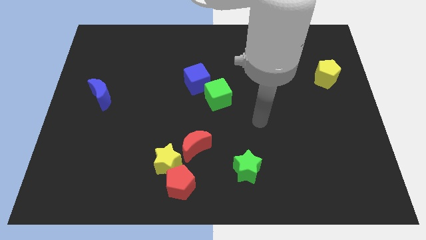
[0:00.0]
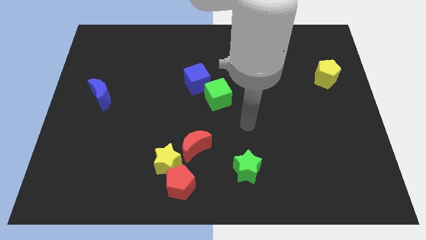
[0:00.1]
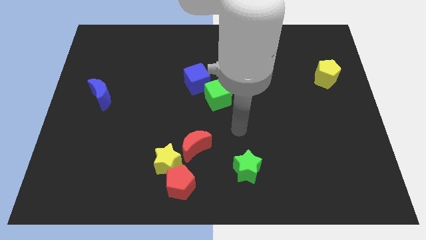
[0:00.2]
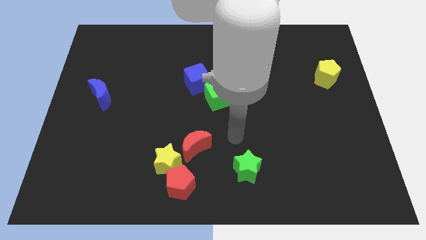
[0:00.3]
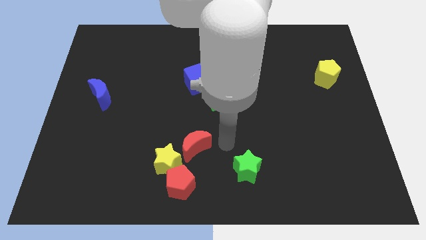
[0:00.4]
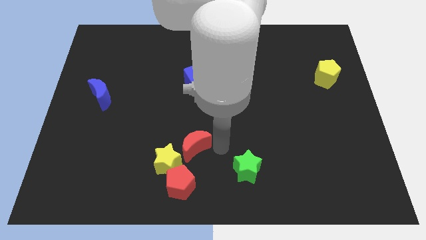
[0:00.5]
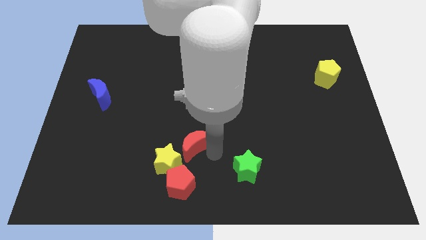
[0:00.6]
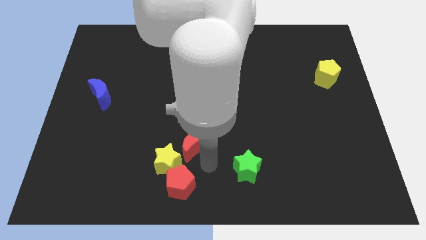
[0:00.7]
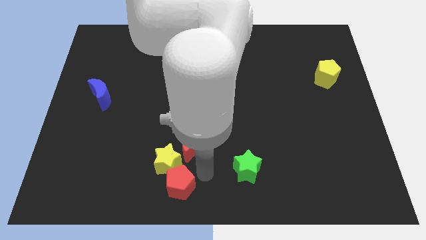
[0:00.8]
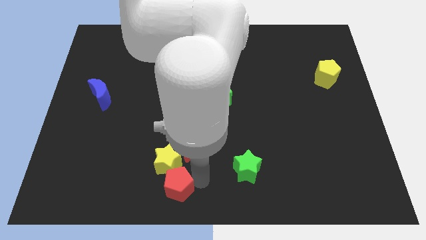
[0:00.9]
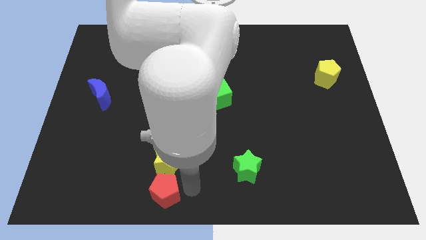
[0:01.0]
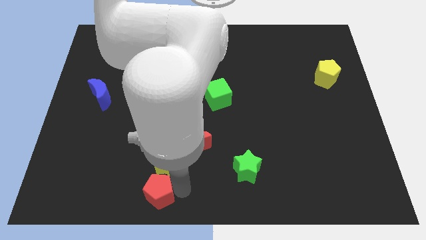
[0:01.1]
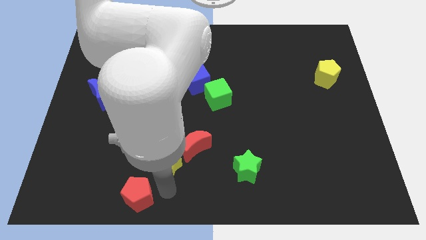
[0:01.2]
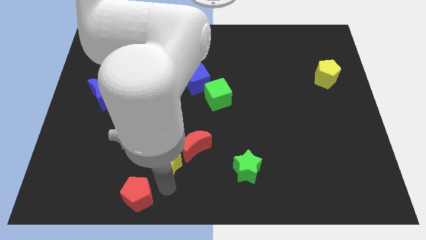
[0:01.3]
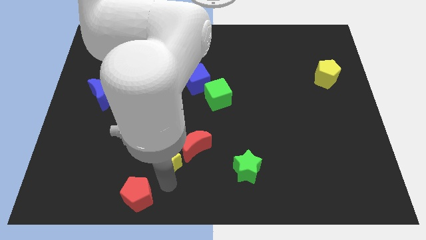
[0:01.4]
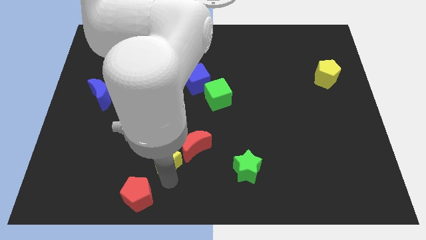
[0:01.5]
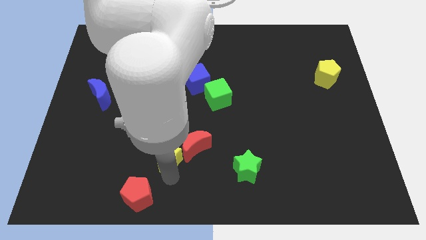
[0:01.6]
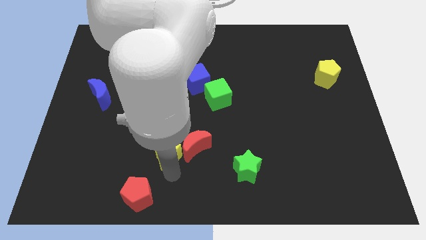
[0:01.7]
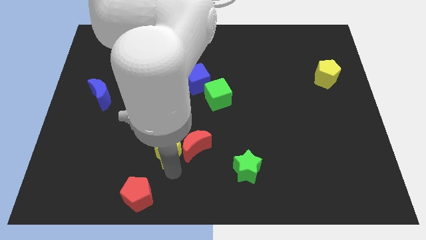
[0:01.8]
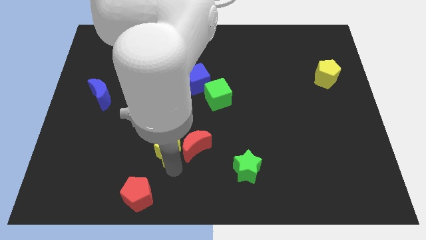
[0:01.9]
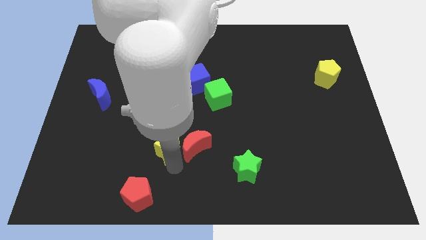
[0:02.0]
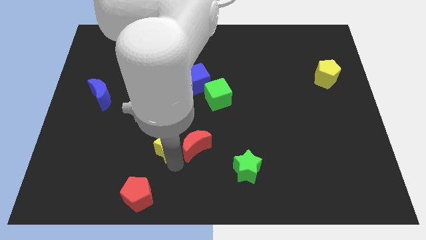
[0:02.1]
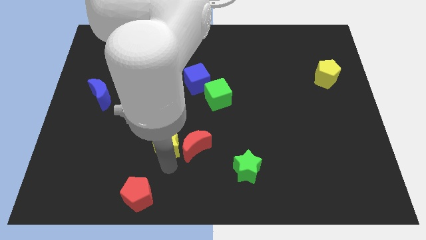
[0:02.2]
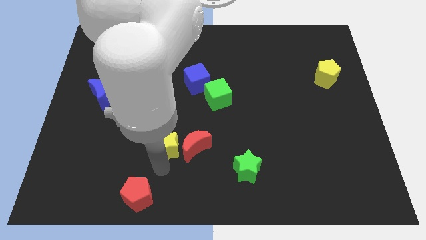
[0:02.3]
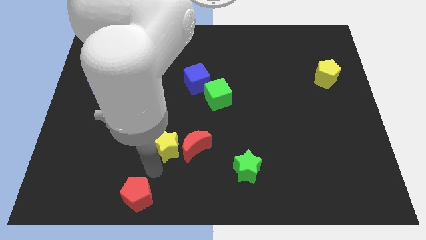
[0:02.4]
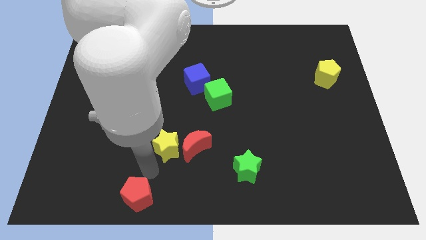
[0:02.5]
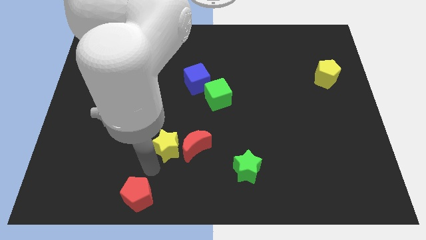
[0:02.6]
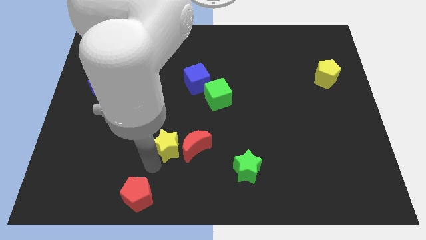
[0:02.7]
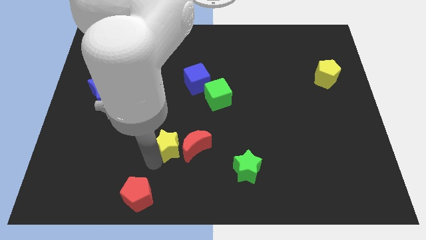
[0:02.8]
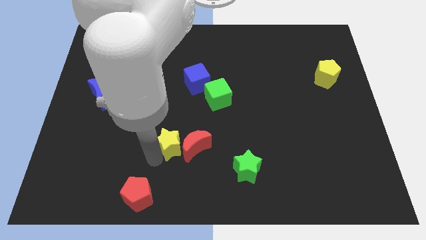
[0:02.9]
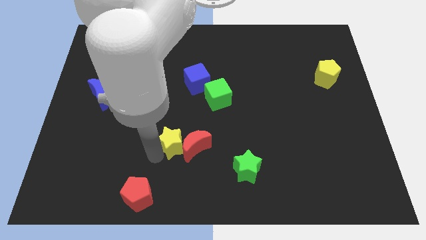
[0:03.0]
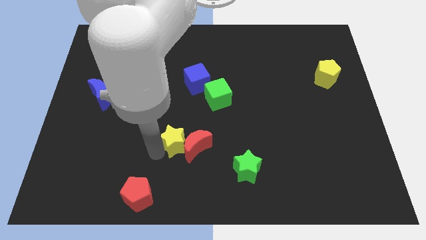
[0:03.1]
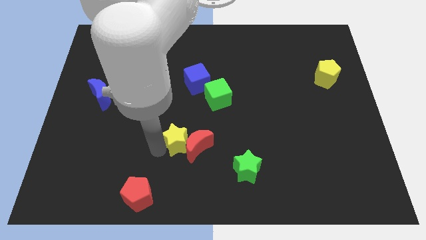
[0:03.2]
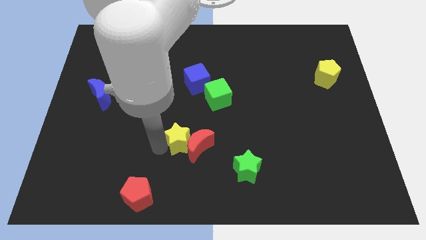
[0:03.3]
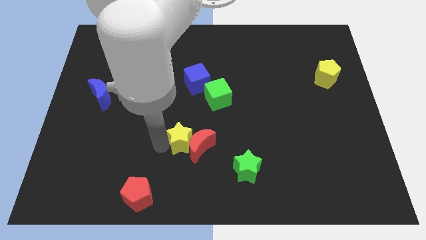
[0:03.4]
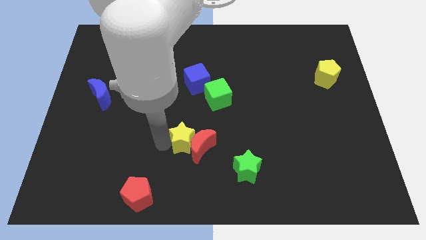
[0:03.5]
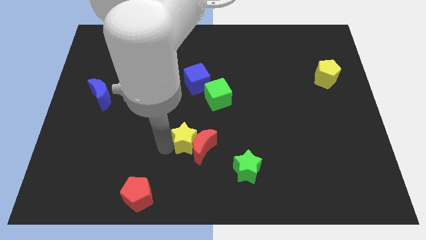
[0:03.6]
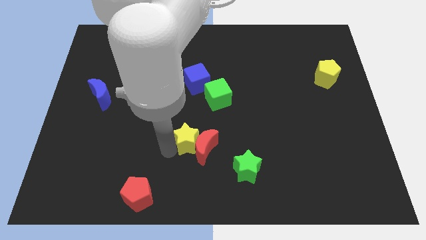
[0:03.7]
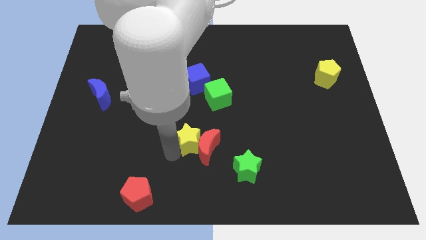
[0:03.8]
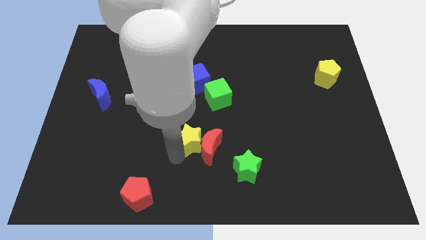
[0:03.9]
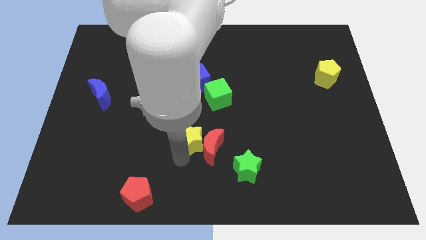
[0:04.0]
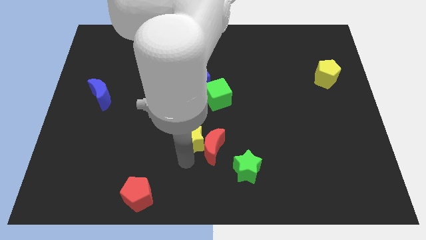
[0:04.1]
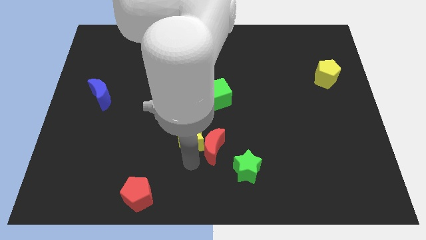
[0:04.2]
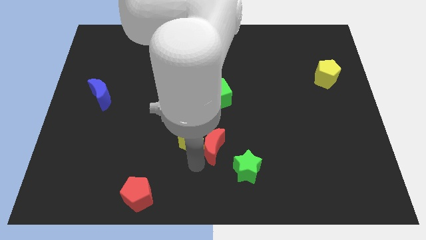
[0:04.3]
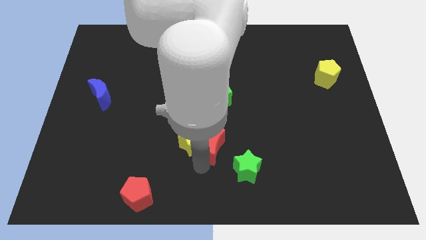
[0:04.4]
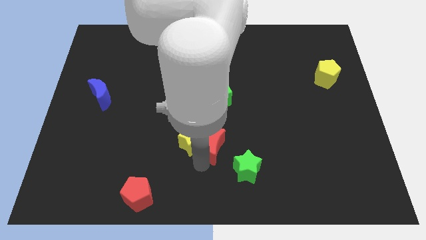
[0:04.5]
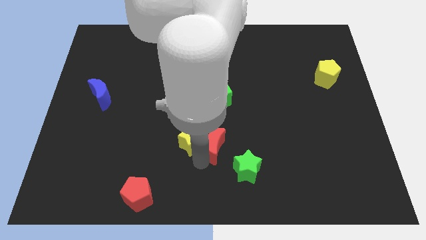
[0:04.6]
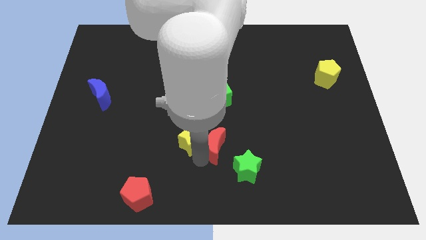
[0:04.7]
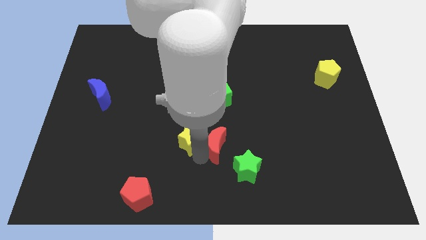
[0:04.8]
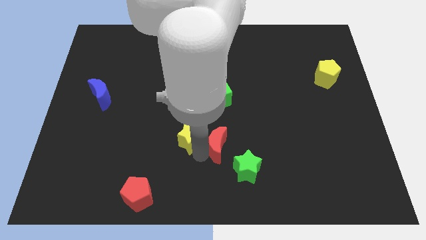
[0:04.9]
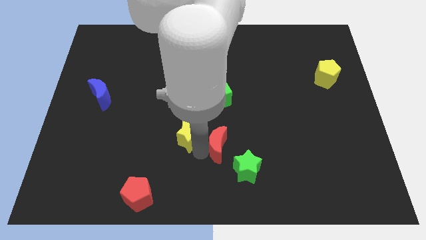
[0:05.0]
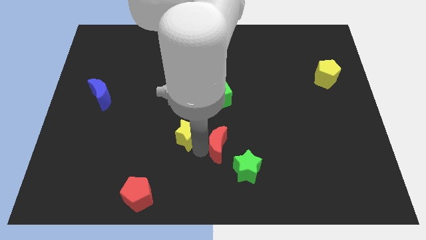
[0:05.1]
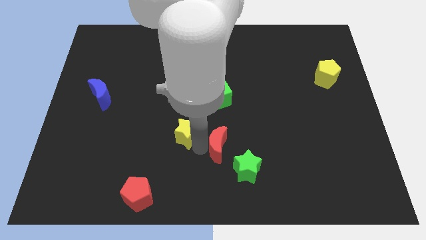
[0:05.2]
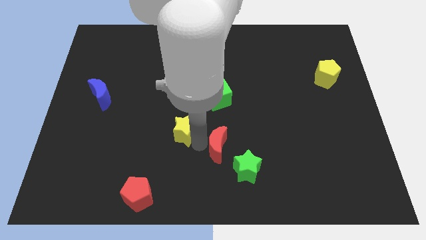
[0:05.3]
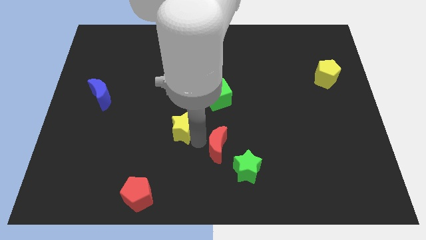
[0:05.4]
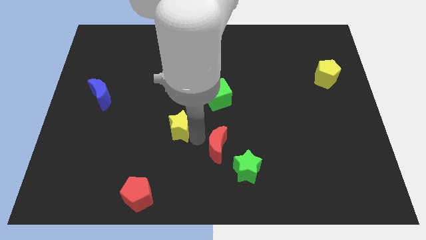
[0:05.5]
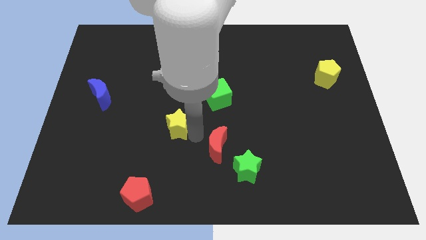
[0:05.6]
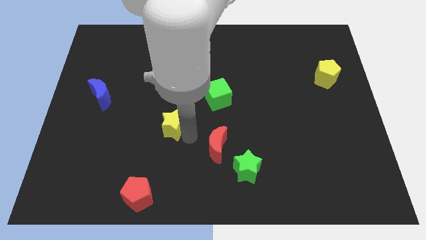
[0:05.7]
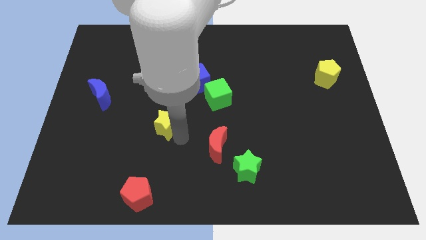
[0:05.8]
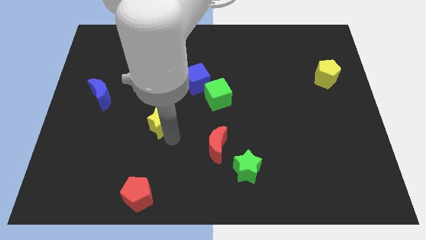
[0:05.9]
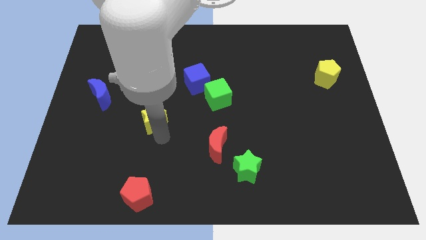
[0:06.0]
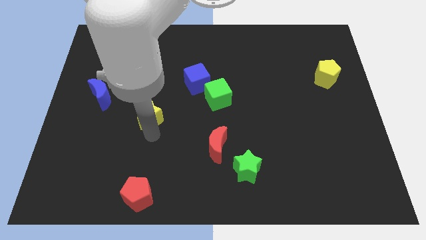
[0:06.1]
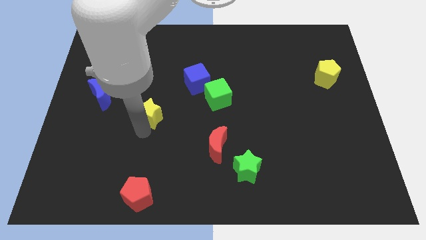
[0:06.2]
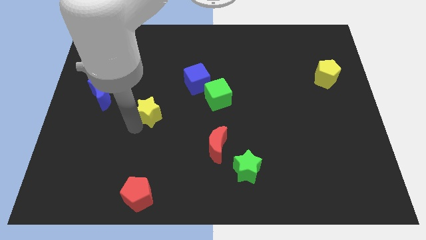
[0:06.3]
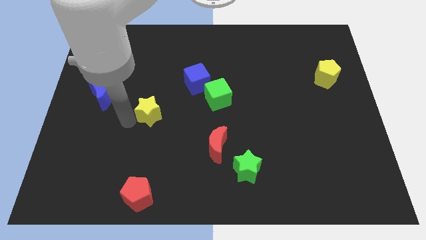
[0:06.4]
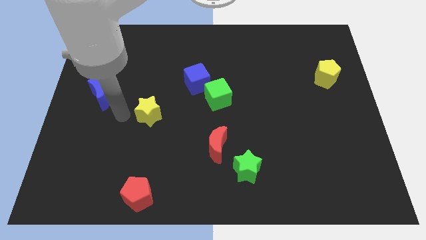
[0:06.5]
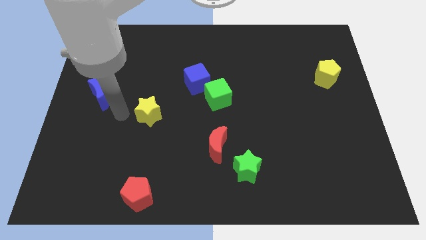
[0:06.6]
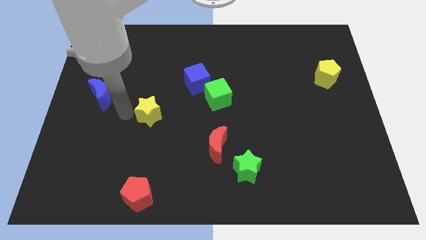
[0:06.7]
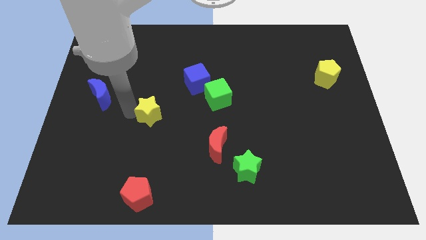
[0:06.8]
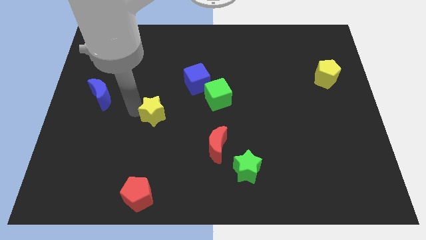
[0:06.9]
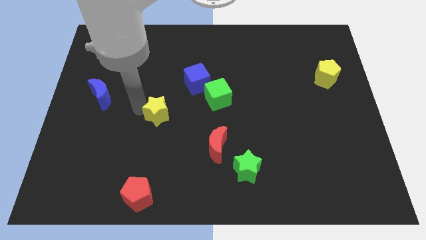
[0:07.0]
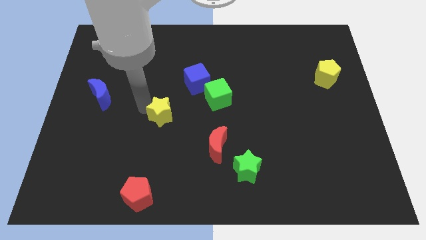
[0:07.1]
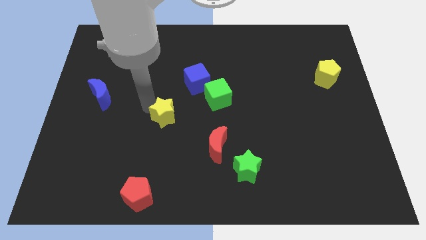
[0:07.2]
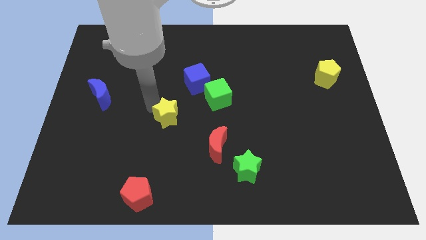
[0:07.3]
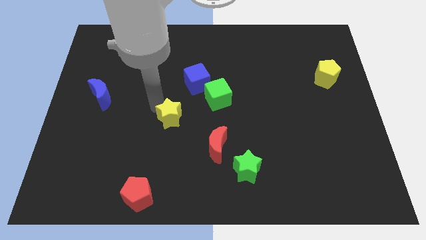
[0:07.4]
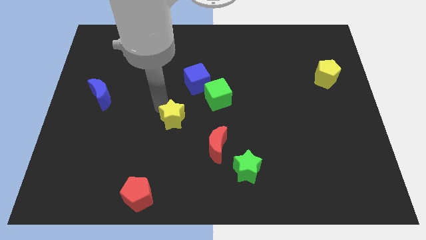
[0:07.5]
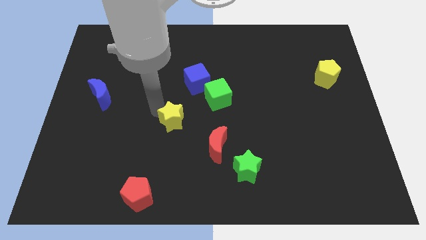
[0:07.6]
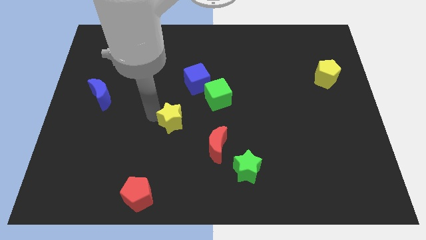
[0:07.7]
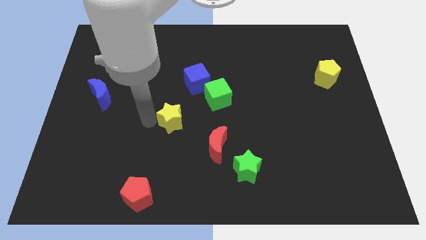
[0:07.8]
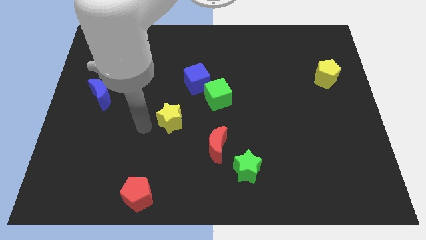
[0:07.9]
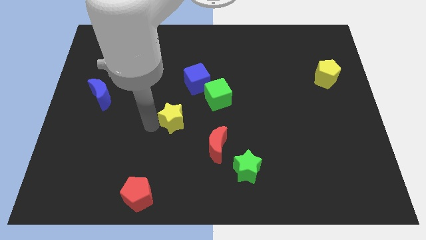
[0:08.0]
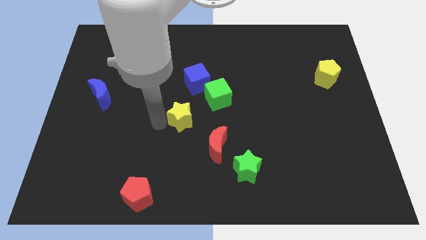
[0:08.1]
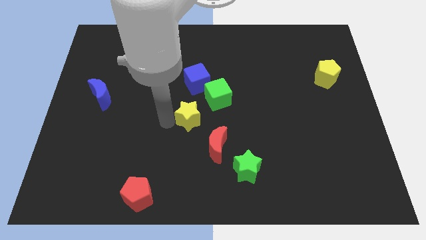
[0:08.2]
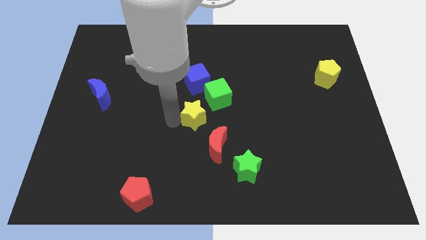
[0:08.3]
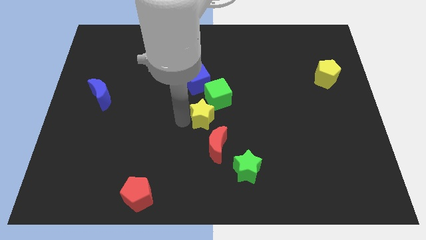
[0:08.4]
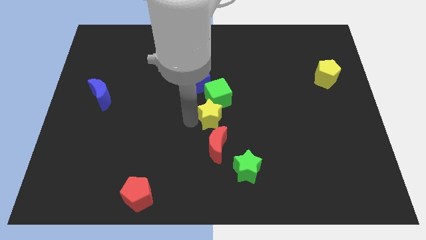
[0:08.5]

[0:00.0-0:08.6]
slide the yellow star next to the green cube
